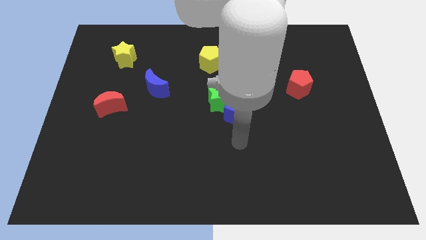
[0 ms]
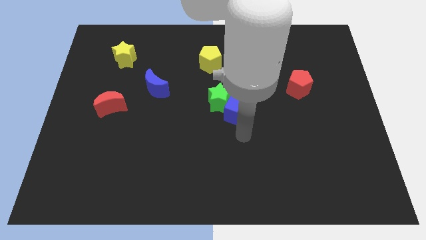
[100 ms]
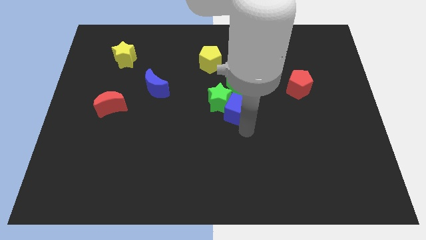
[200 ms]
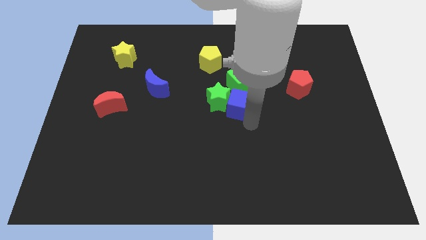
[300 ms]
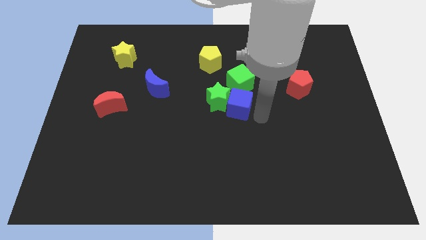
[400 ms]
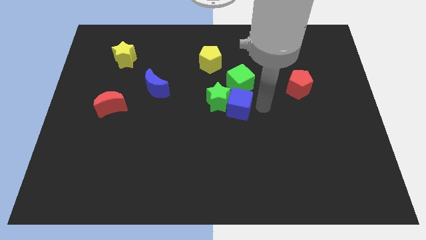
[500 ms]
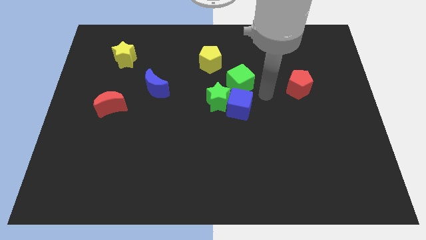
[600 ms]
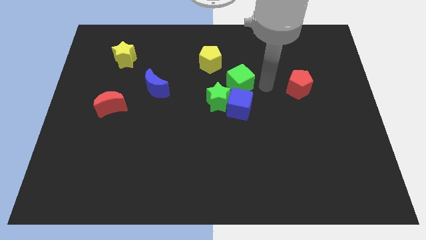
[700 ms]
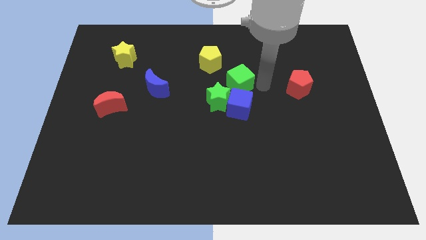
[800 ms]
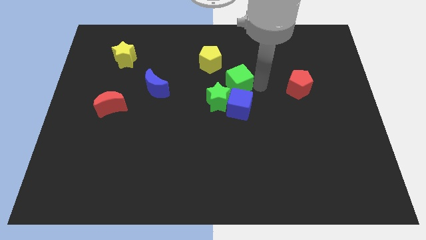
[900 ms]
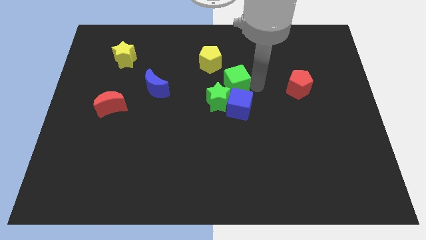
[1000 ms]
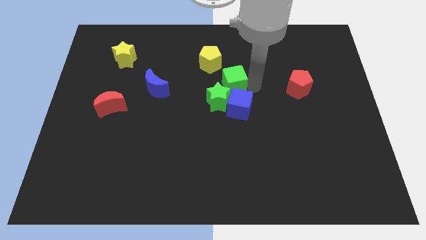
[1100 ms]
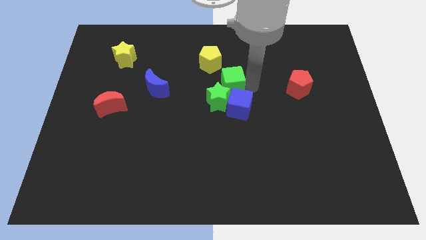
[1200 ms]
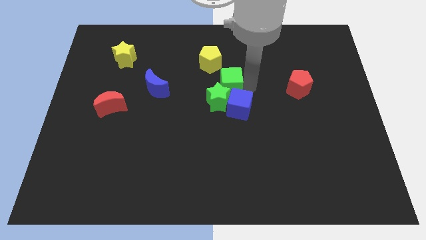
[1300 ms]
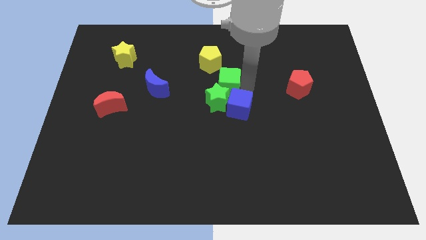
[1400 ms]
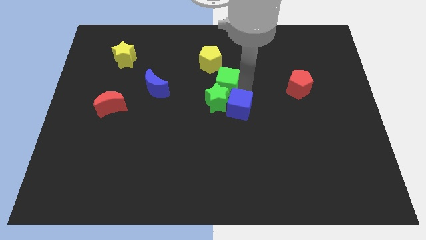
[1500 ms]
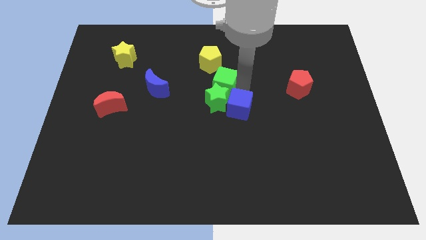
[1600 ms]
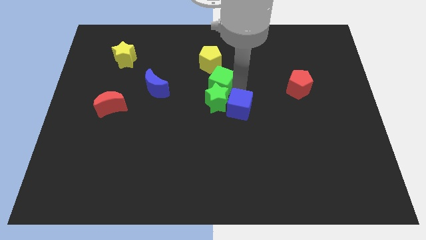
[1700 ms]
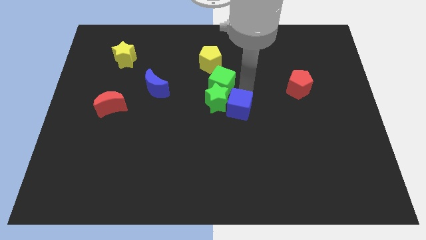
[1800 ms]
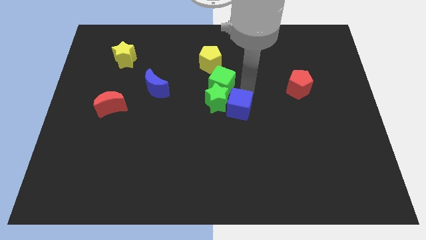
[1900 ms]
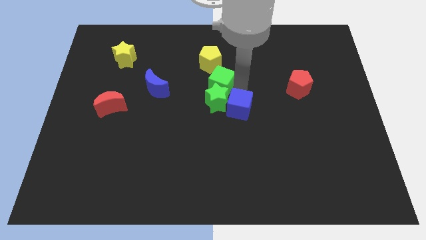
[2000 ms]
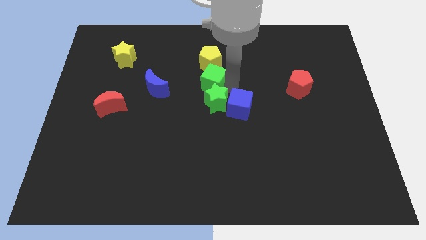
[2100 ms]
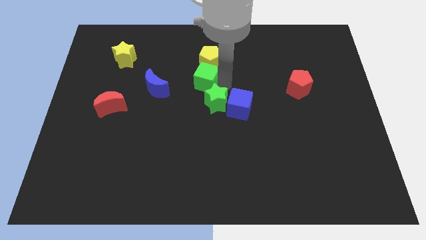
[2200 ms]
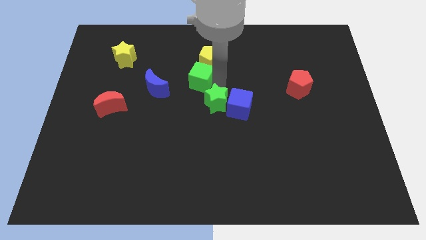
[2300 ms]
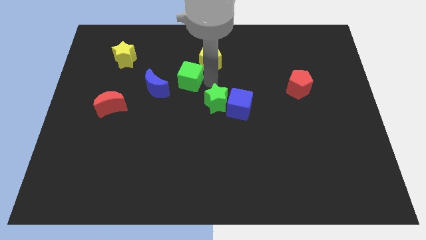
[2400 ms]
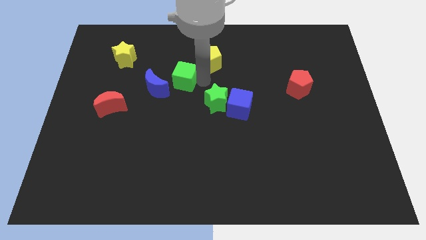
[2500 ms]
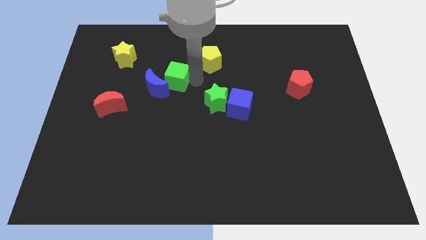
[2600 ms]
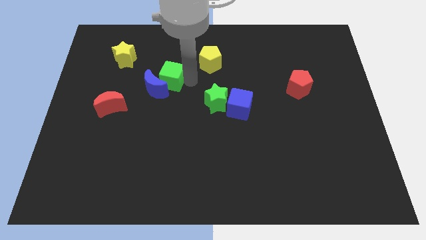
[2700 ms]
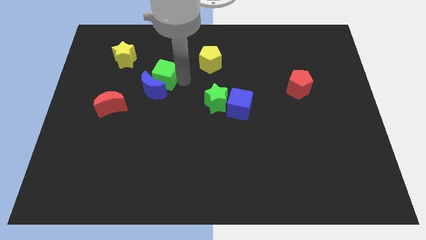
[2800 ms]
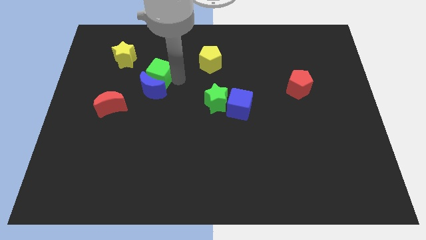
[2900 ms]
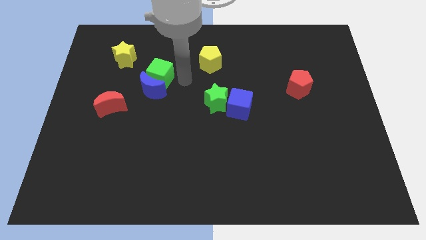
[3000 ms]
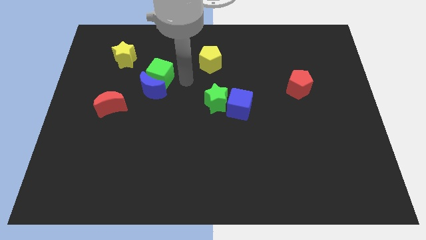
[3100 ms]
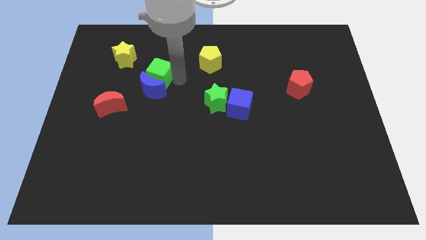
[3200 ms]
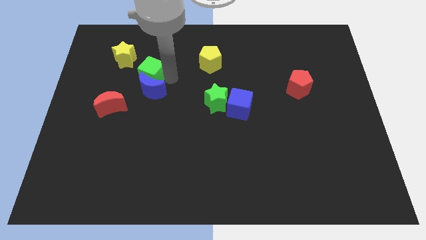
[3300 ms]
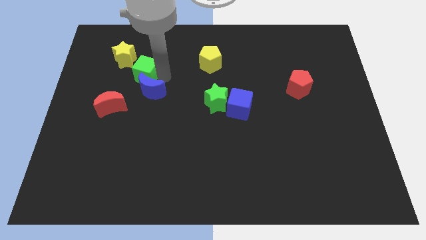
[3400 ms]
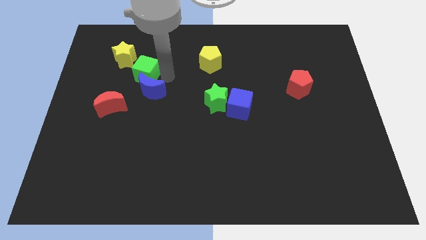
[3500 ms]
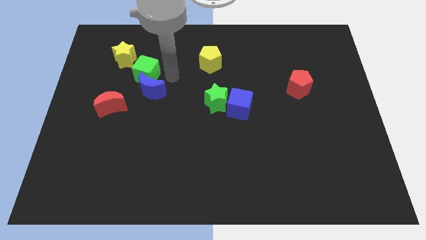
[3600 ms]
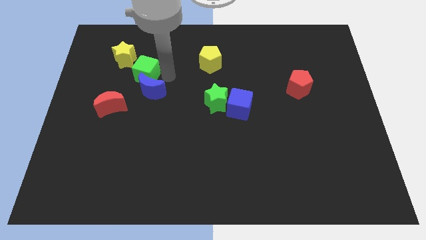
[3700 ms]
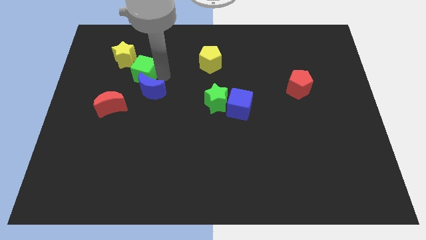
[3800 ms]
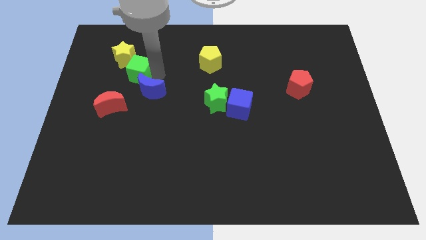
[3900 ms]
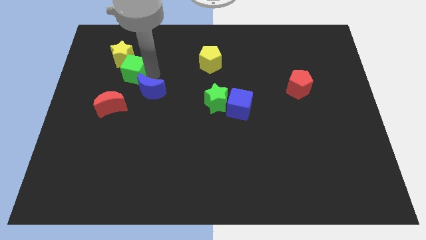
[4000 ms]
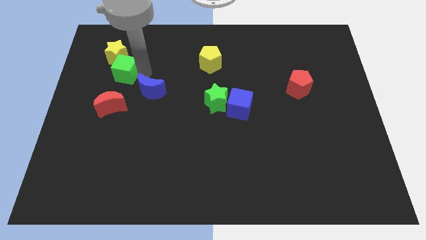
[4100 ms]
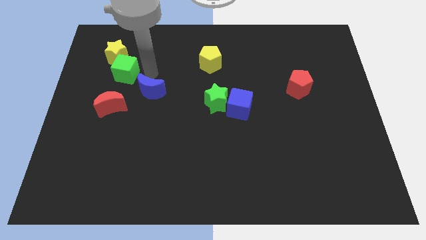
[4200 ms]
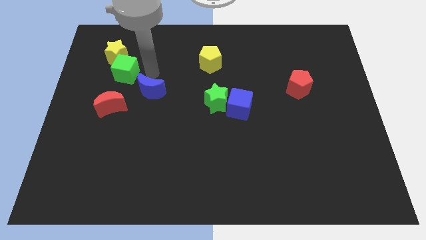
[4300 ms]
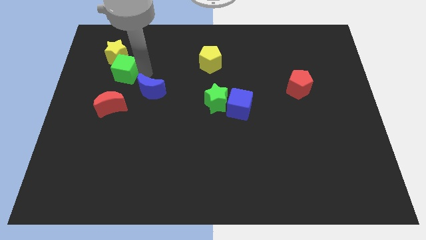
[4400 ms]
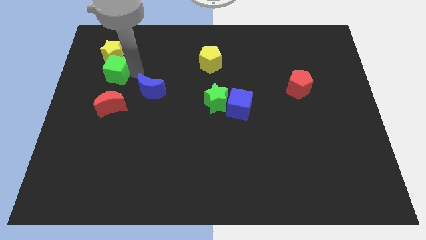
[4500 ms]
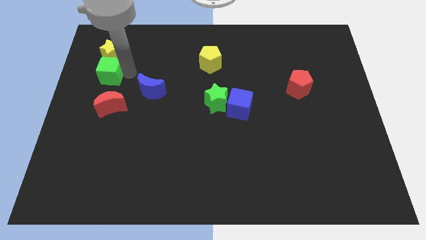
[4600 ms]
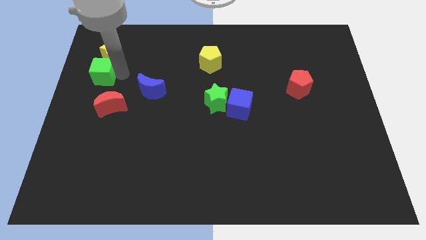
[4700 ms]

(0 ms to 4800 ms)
push the green cube diagonally down and to the left of the yellow star

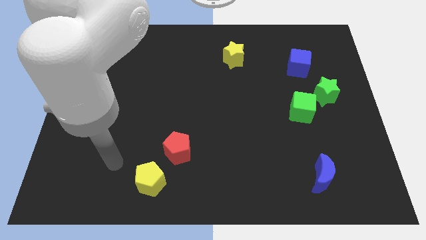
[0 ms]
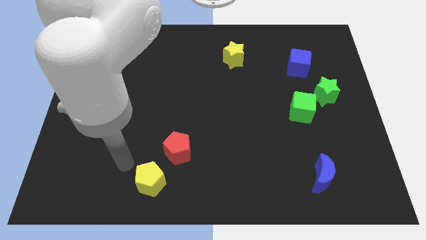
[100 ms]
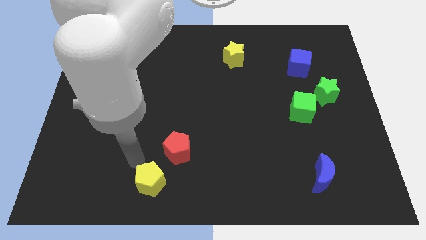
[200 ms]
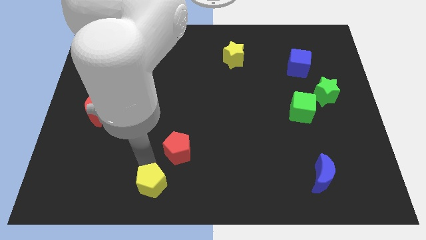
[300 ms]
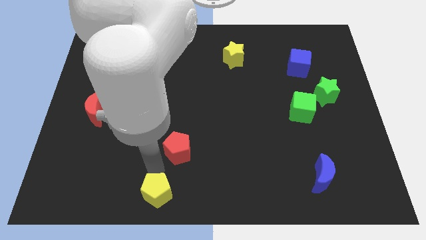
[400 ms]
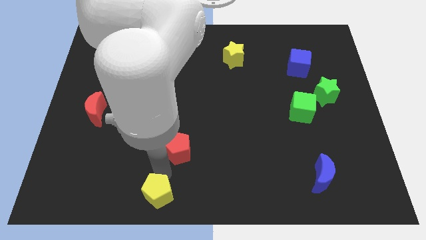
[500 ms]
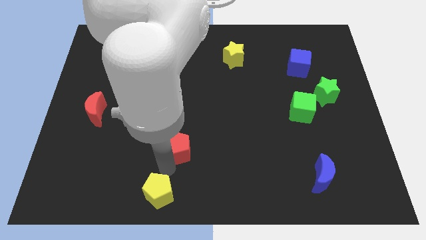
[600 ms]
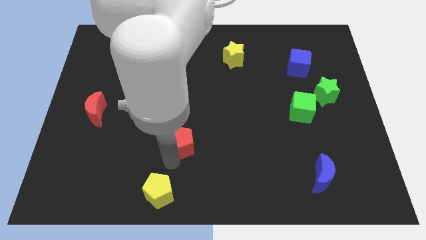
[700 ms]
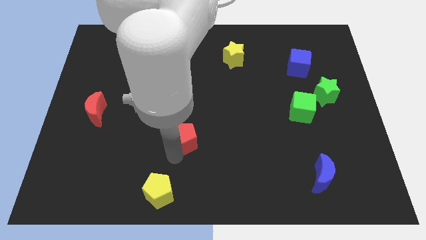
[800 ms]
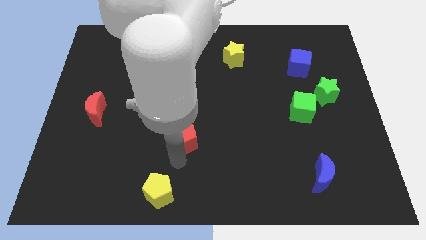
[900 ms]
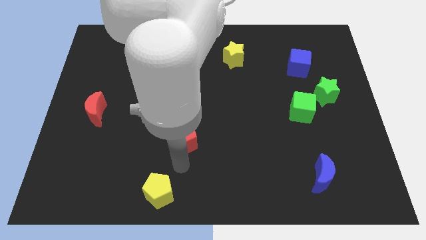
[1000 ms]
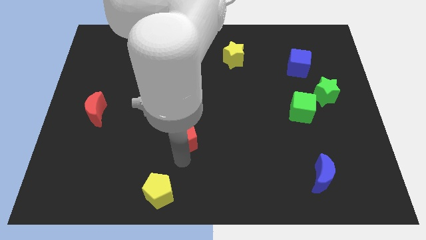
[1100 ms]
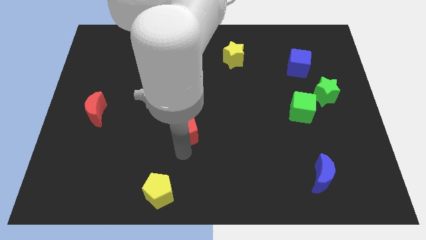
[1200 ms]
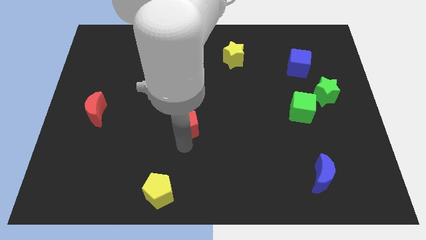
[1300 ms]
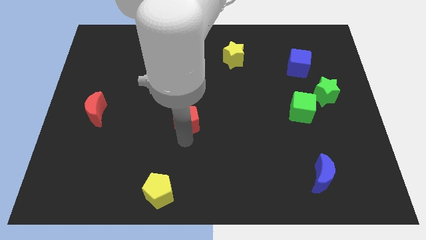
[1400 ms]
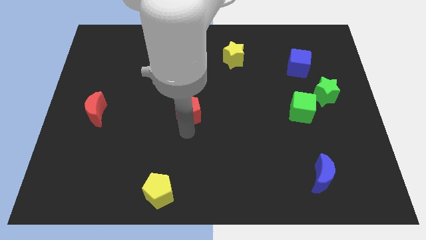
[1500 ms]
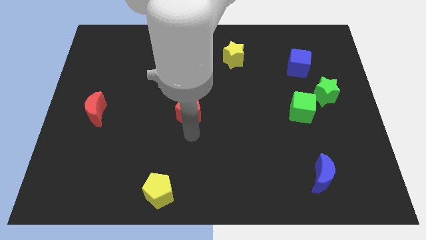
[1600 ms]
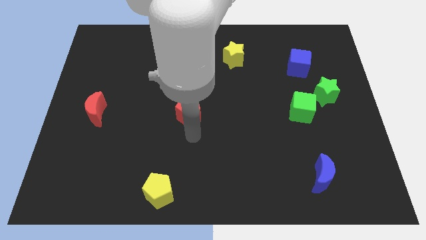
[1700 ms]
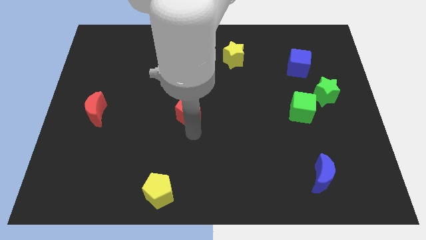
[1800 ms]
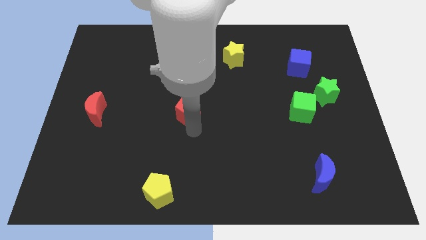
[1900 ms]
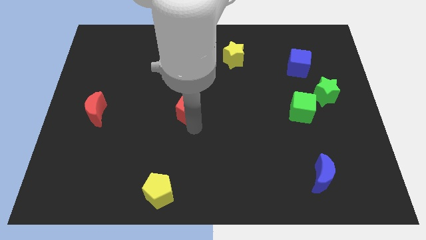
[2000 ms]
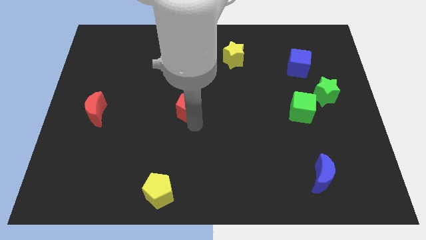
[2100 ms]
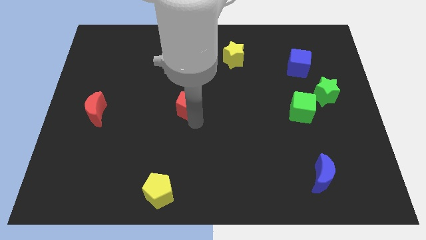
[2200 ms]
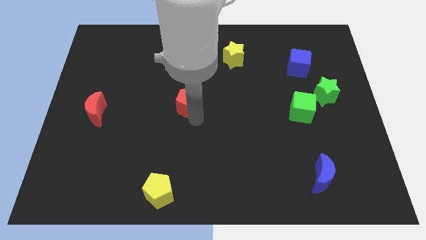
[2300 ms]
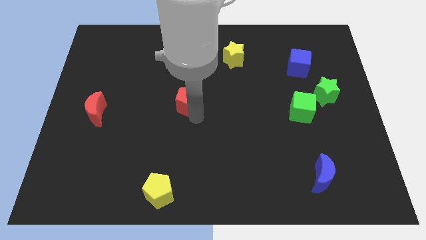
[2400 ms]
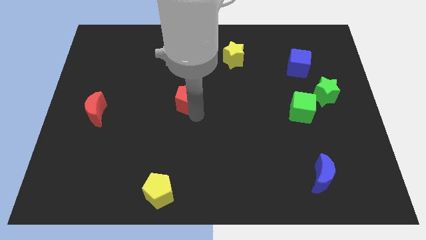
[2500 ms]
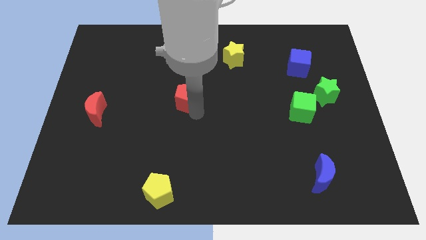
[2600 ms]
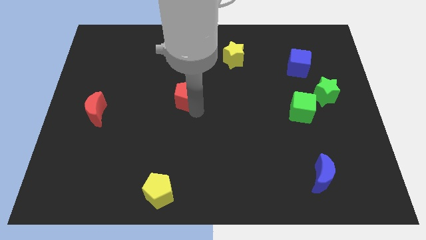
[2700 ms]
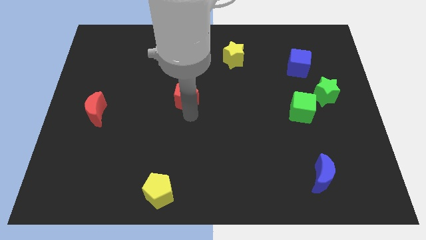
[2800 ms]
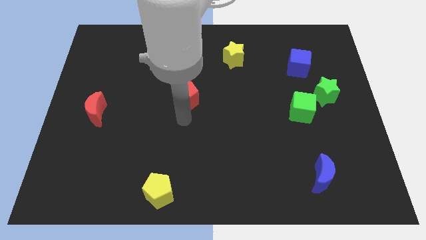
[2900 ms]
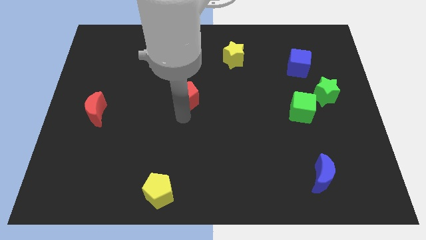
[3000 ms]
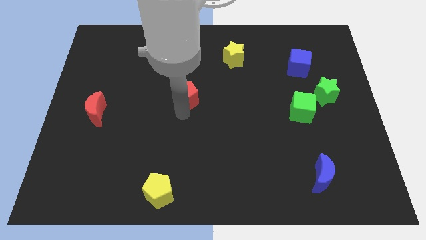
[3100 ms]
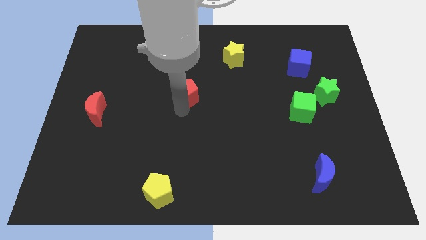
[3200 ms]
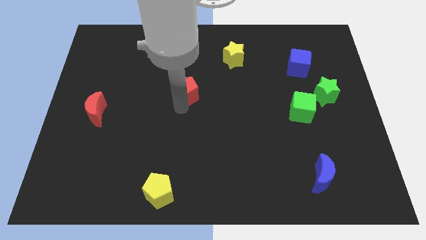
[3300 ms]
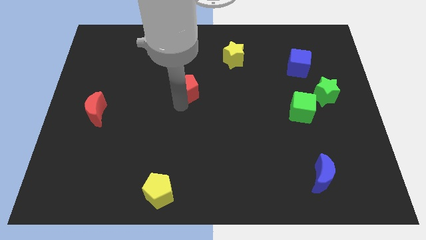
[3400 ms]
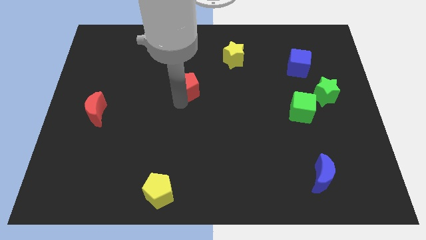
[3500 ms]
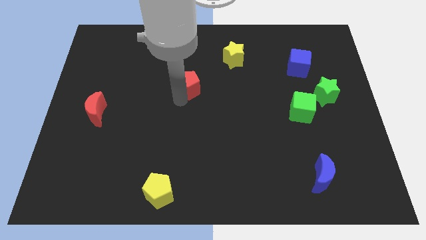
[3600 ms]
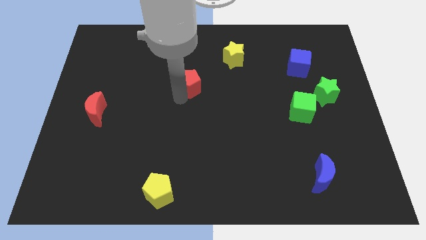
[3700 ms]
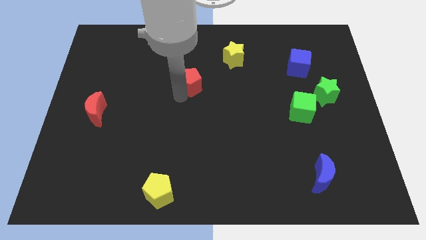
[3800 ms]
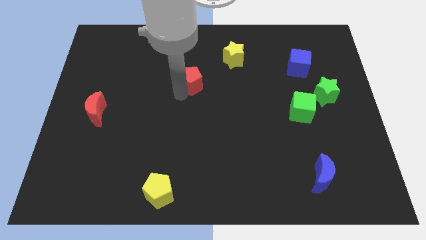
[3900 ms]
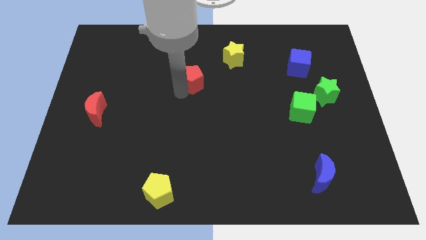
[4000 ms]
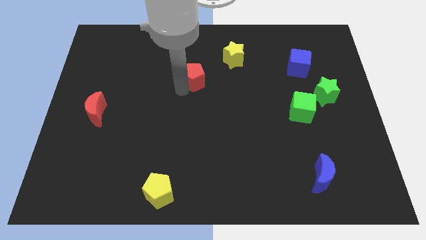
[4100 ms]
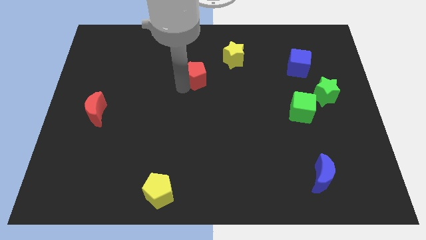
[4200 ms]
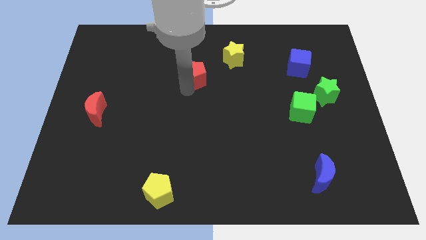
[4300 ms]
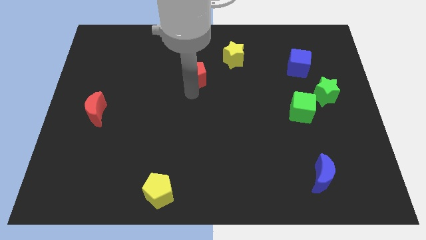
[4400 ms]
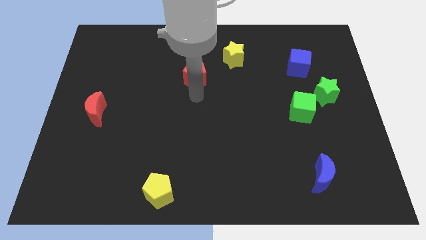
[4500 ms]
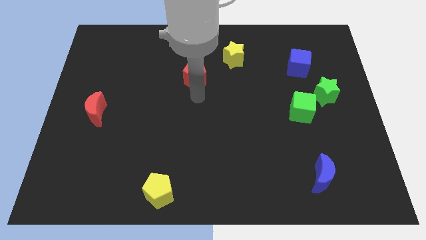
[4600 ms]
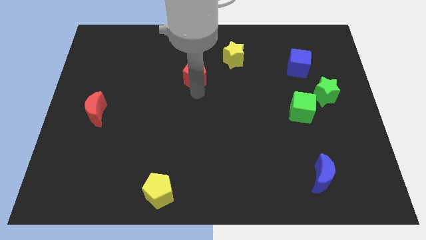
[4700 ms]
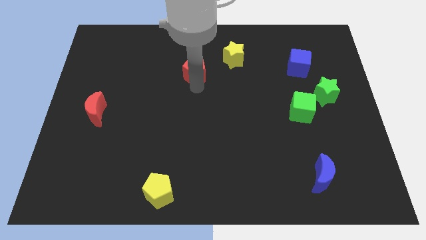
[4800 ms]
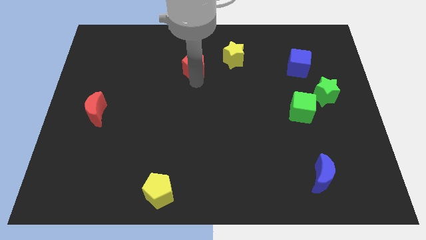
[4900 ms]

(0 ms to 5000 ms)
slide the red pentagon to the left of the yellow star
